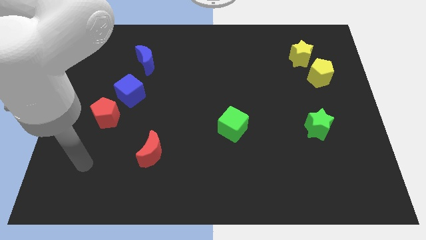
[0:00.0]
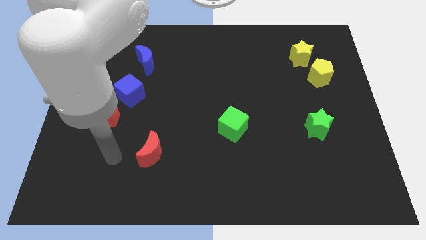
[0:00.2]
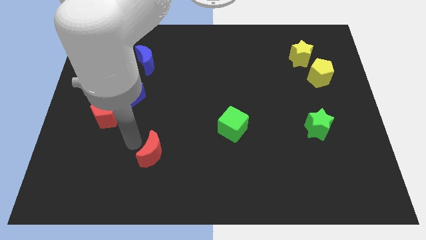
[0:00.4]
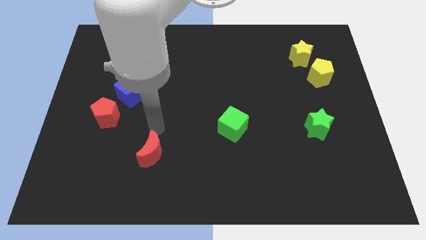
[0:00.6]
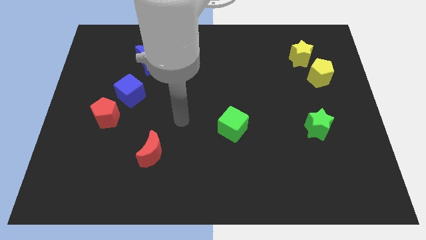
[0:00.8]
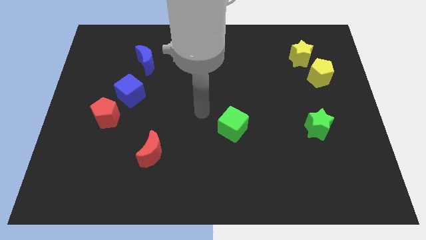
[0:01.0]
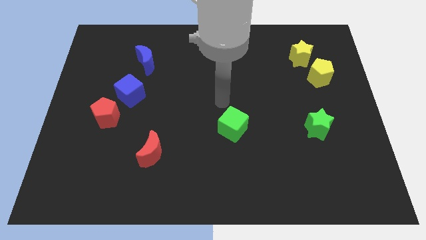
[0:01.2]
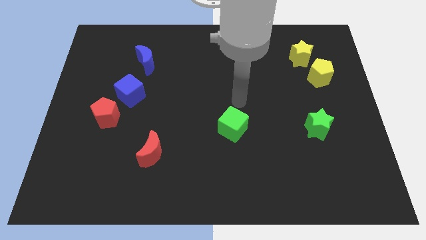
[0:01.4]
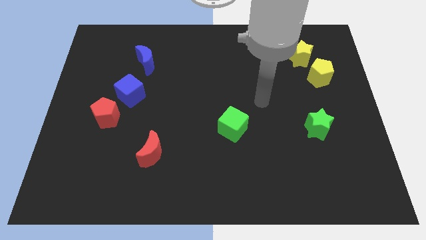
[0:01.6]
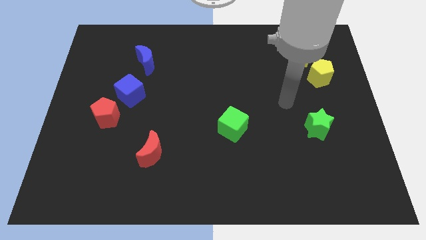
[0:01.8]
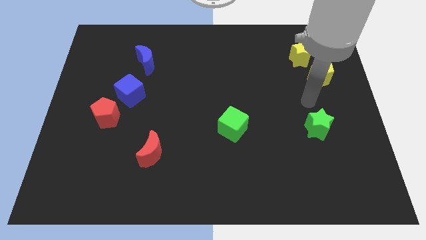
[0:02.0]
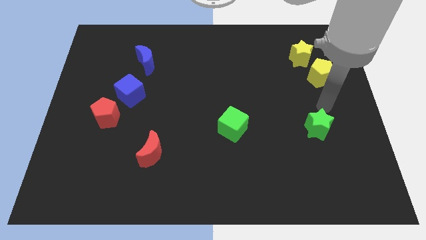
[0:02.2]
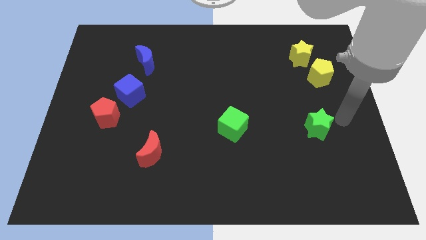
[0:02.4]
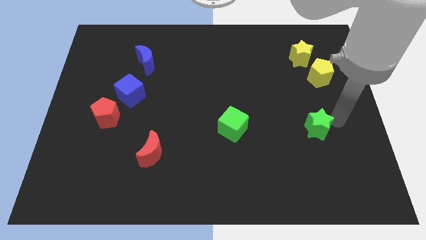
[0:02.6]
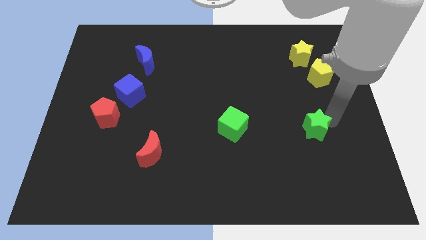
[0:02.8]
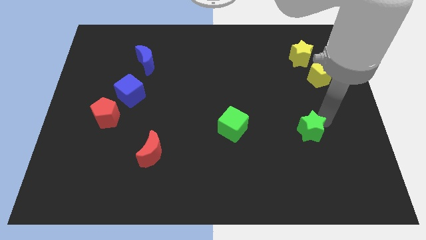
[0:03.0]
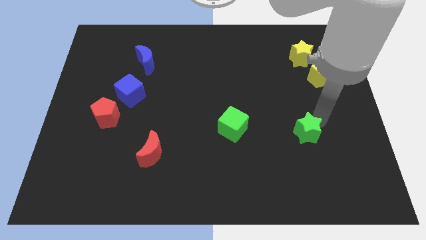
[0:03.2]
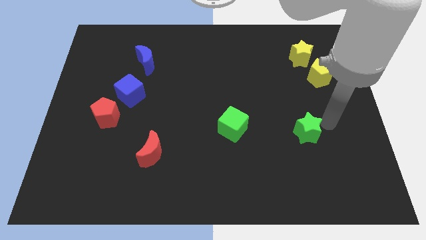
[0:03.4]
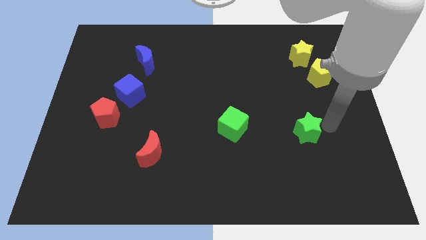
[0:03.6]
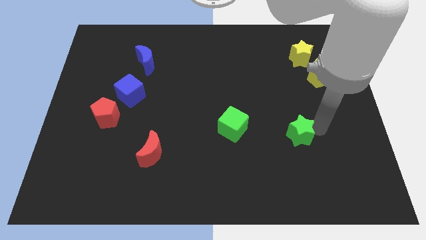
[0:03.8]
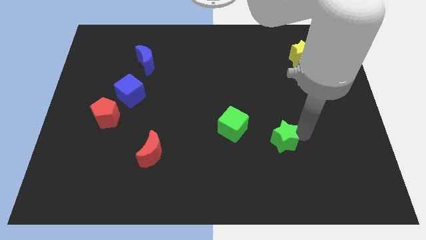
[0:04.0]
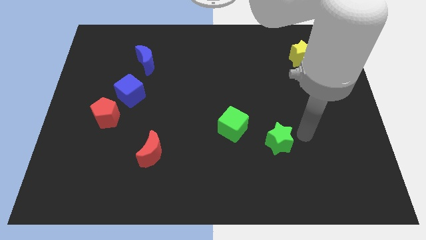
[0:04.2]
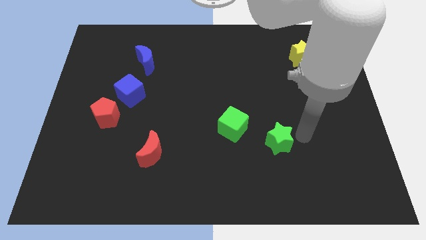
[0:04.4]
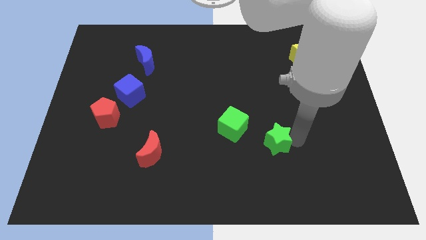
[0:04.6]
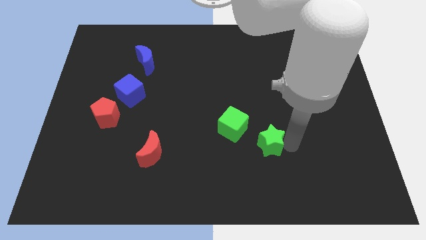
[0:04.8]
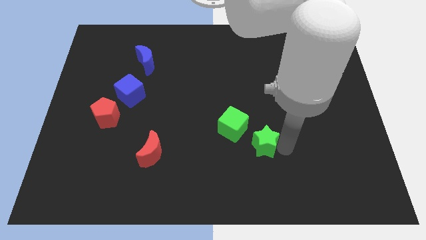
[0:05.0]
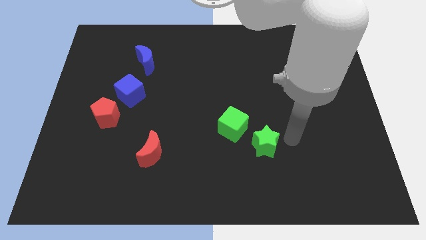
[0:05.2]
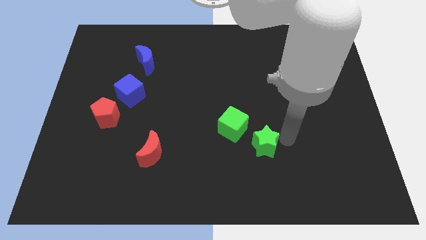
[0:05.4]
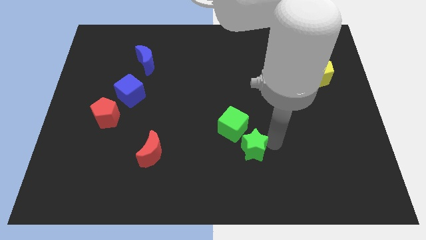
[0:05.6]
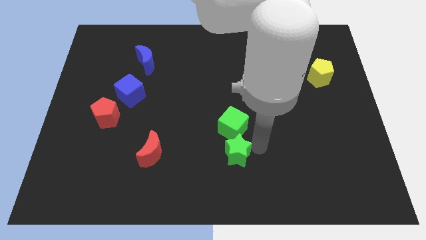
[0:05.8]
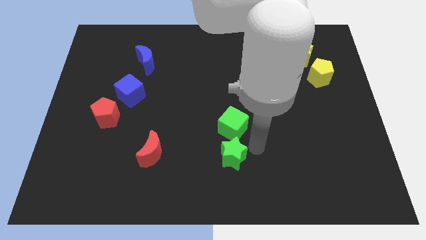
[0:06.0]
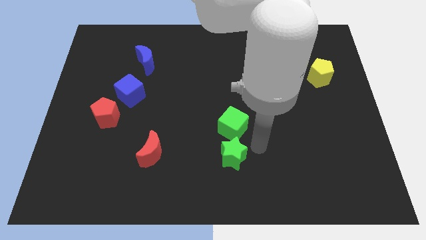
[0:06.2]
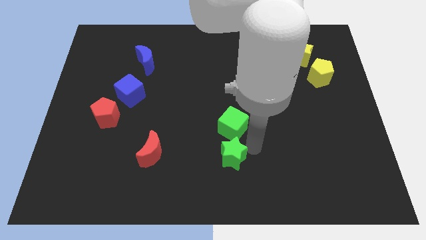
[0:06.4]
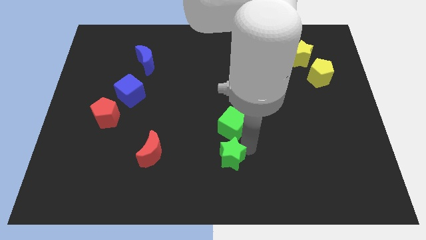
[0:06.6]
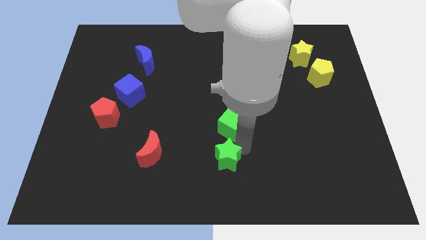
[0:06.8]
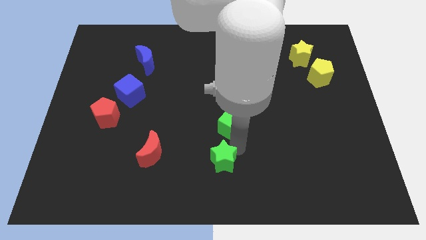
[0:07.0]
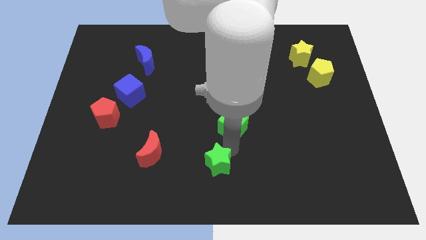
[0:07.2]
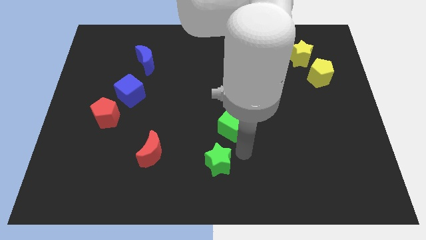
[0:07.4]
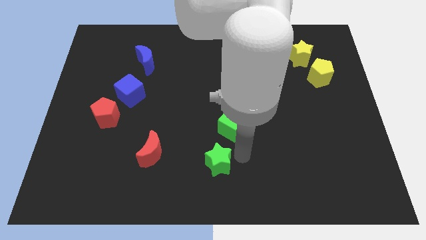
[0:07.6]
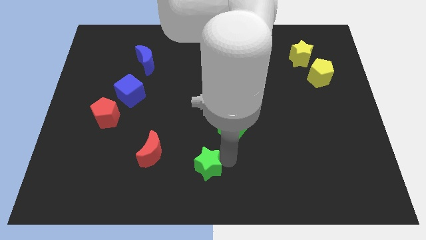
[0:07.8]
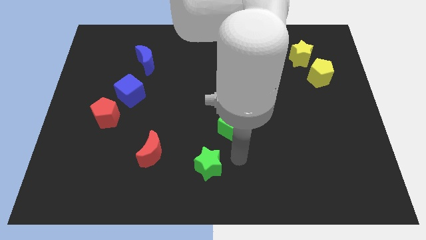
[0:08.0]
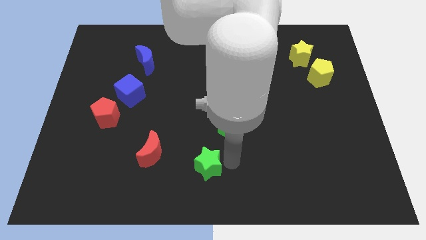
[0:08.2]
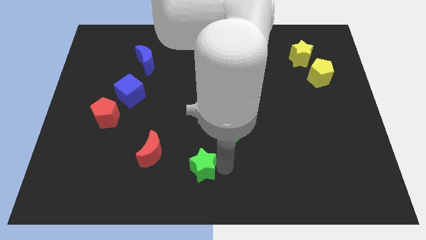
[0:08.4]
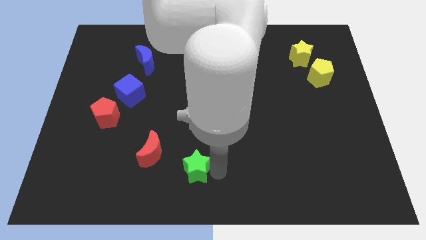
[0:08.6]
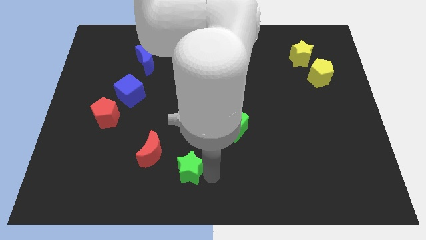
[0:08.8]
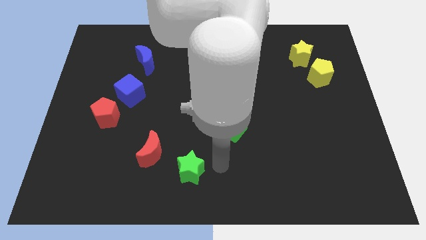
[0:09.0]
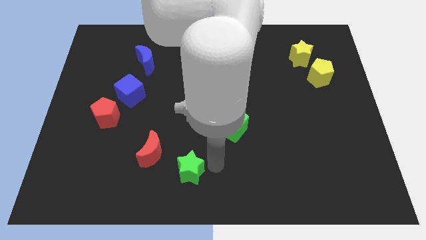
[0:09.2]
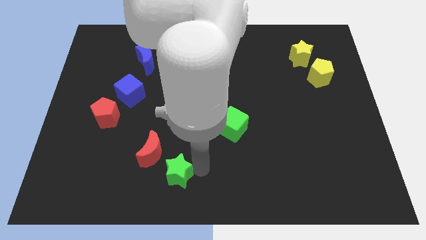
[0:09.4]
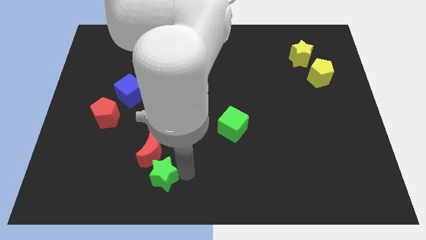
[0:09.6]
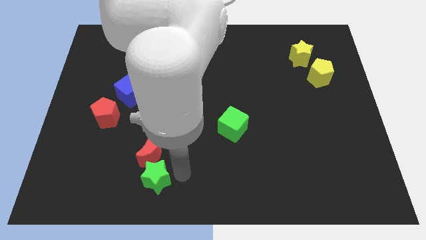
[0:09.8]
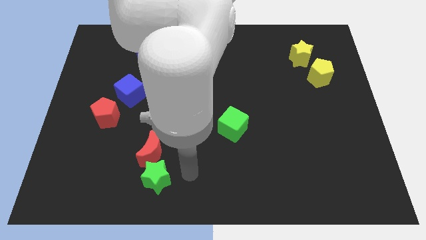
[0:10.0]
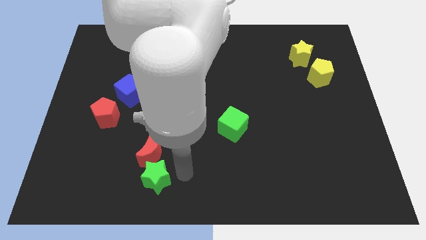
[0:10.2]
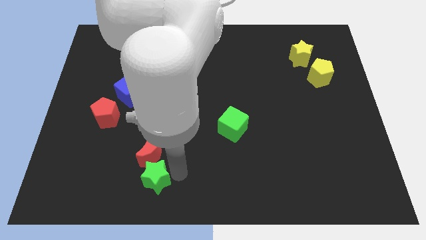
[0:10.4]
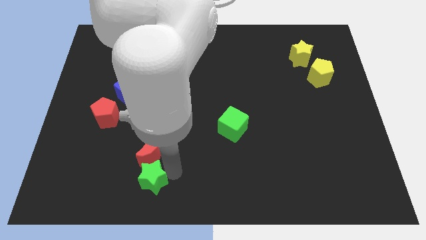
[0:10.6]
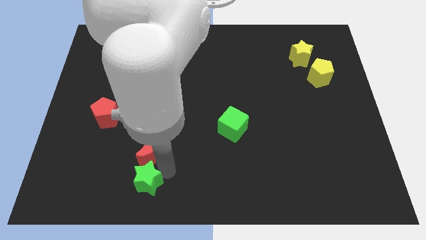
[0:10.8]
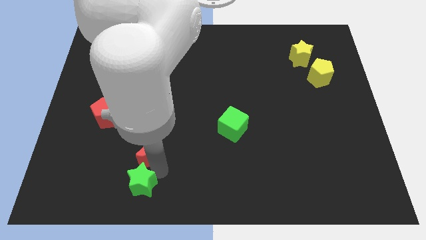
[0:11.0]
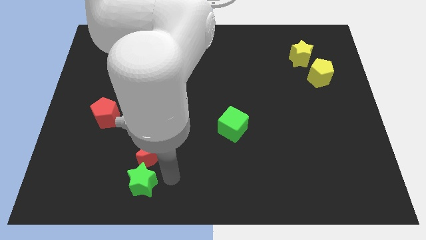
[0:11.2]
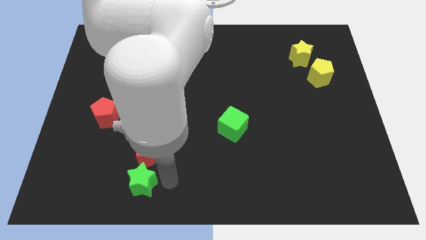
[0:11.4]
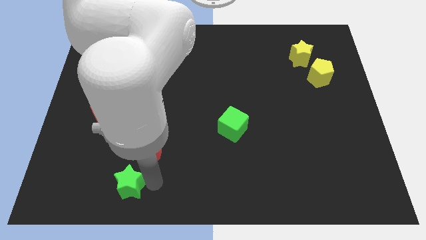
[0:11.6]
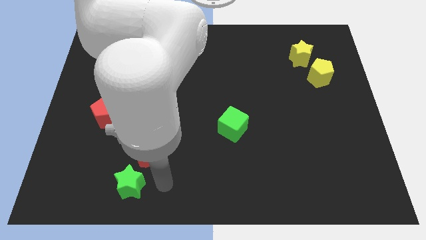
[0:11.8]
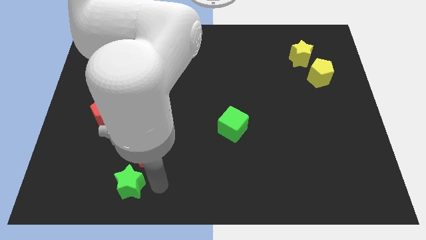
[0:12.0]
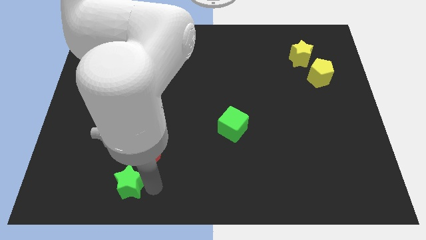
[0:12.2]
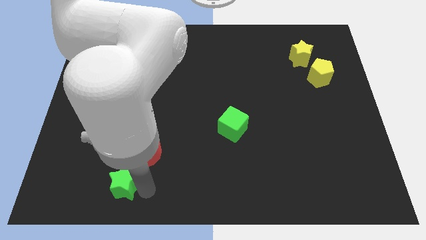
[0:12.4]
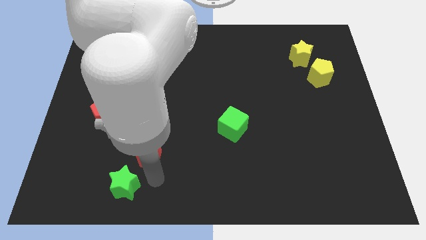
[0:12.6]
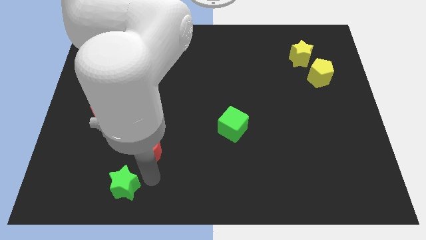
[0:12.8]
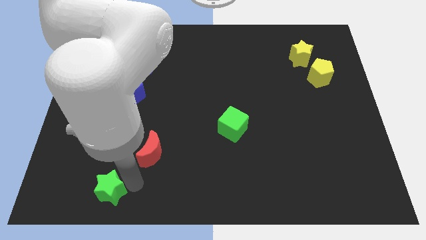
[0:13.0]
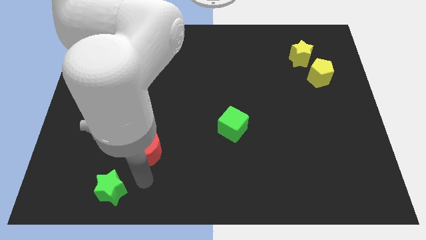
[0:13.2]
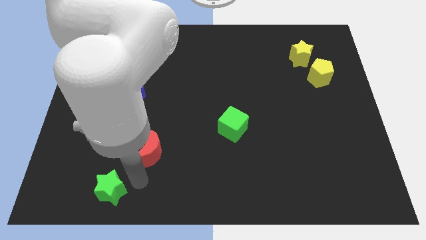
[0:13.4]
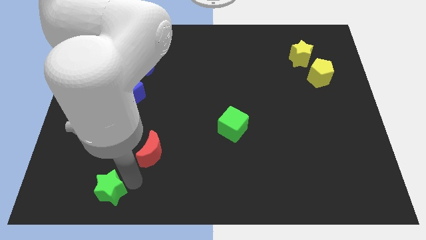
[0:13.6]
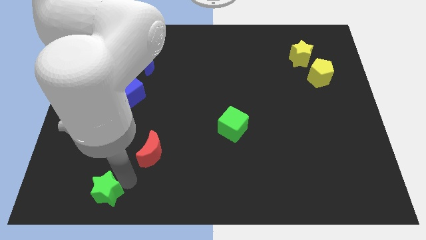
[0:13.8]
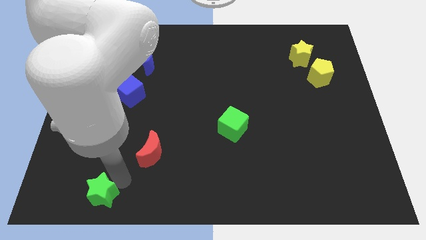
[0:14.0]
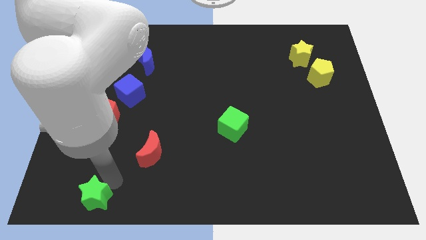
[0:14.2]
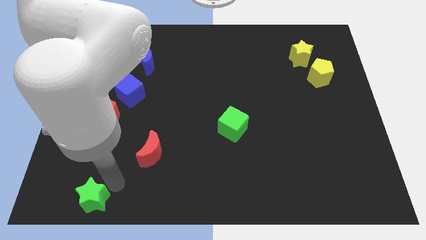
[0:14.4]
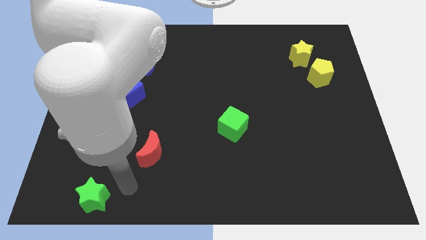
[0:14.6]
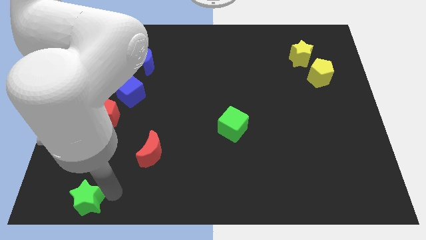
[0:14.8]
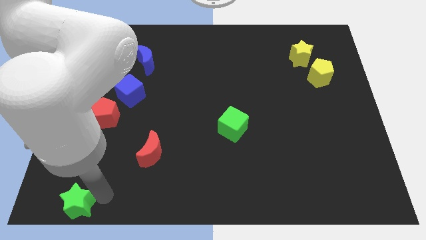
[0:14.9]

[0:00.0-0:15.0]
move the green star to the bottom left of the board
